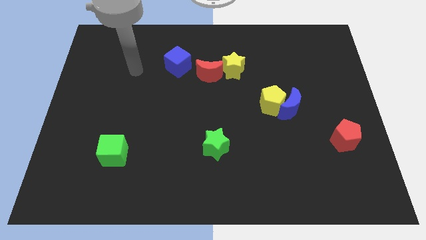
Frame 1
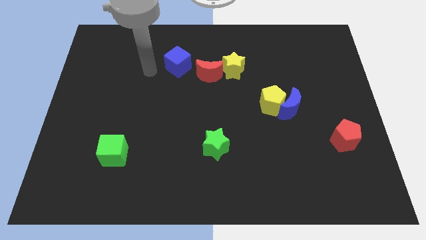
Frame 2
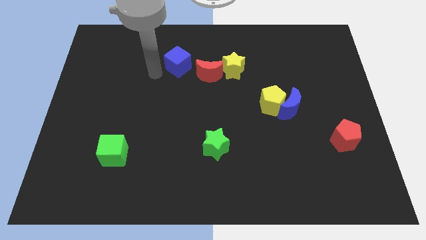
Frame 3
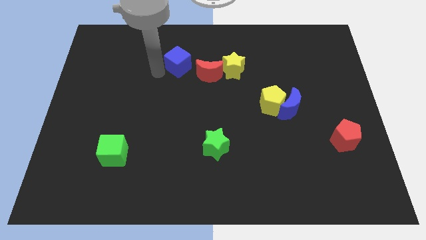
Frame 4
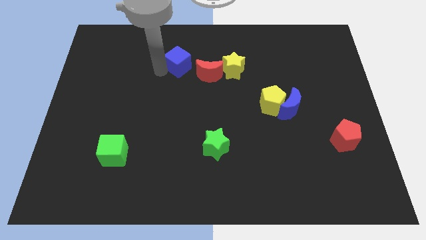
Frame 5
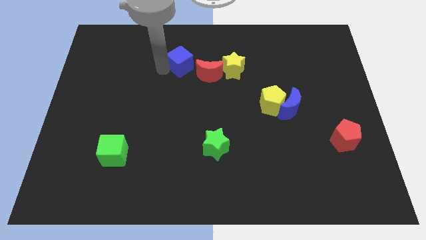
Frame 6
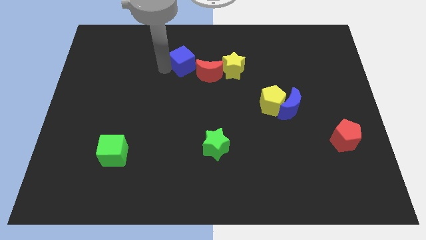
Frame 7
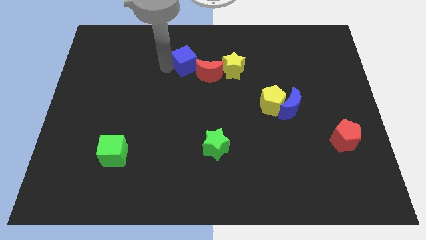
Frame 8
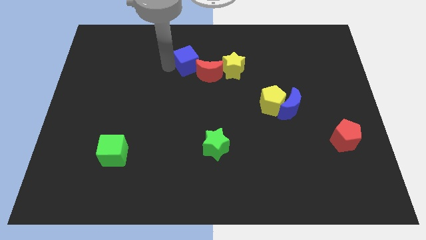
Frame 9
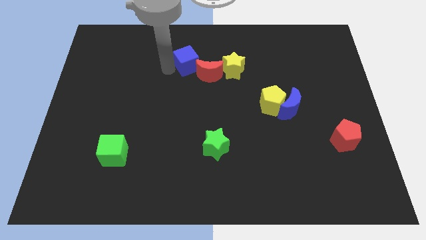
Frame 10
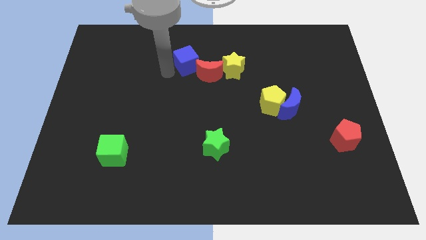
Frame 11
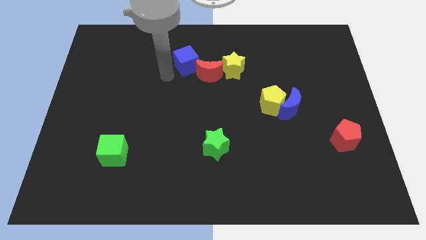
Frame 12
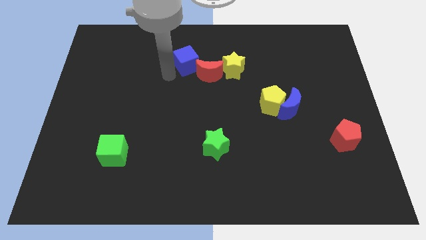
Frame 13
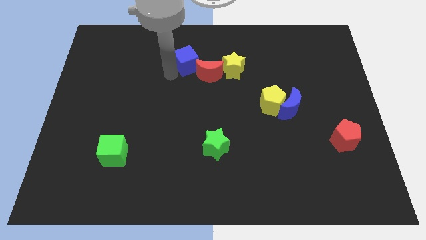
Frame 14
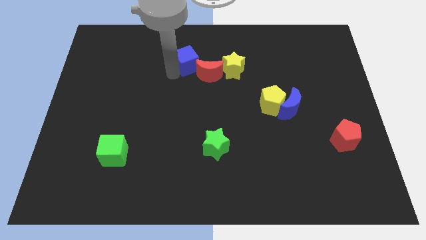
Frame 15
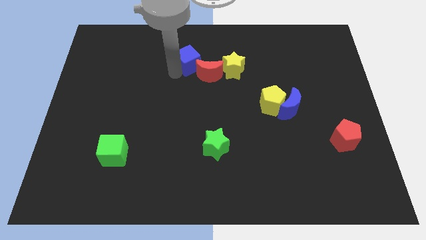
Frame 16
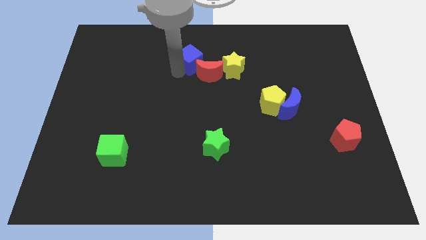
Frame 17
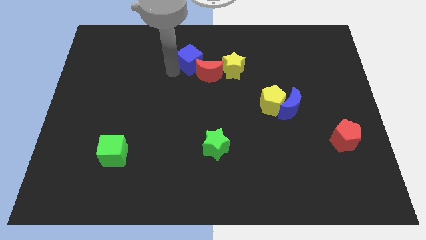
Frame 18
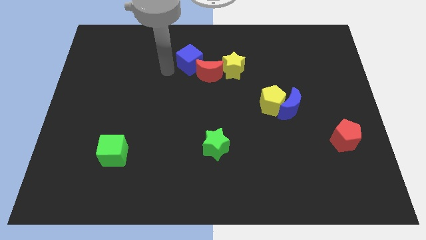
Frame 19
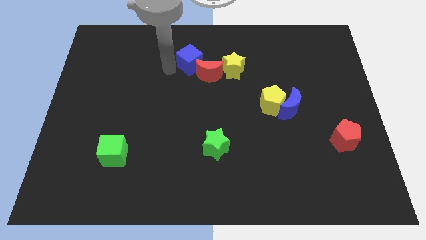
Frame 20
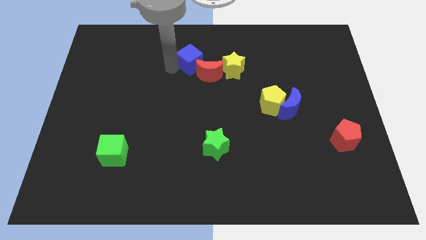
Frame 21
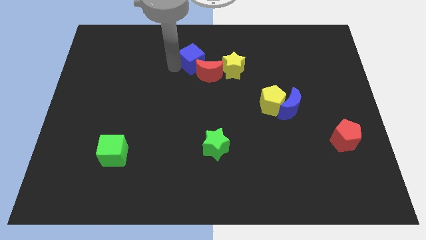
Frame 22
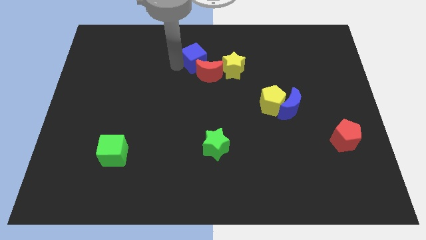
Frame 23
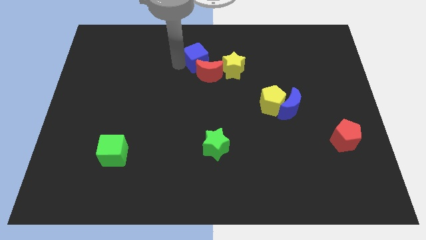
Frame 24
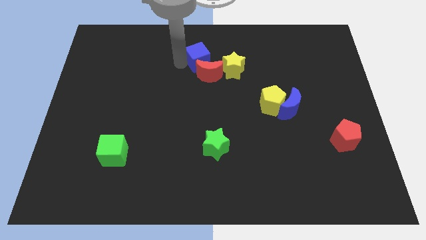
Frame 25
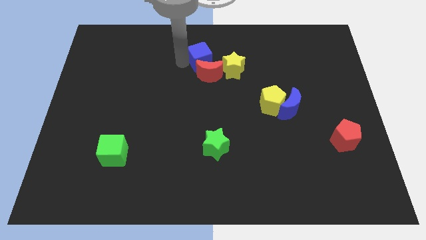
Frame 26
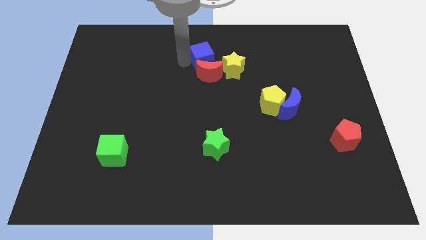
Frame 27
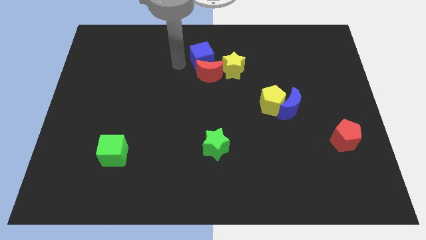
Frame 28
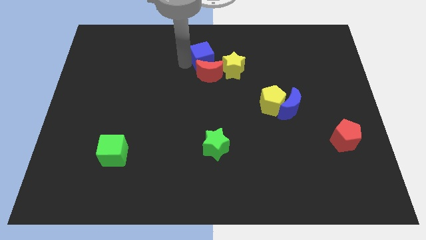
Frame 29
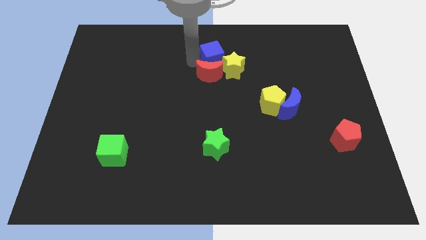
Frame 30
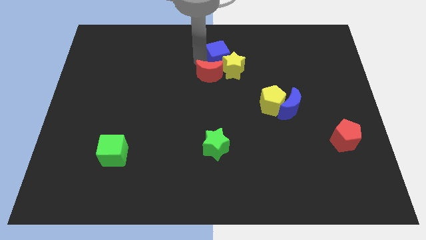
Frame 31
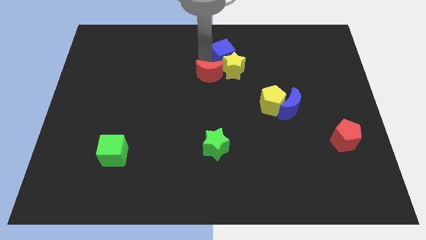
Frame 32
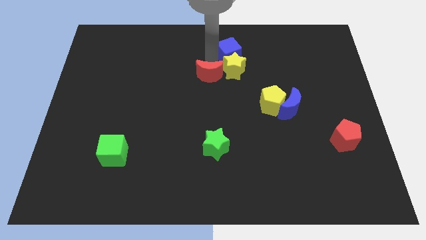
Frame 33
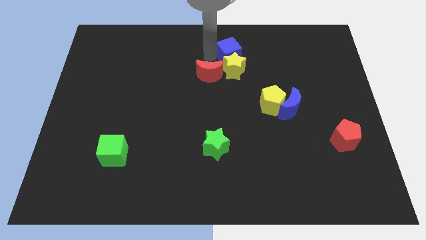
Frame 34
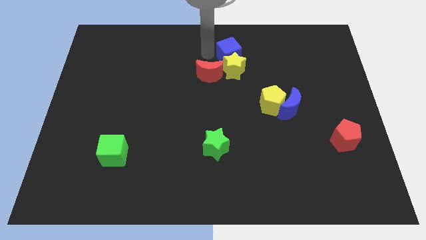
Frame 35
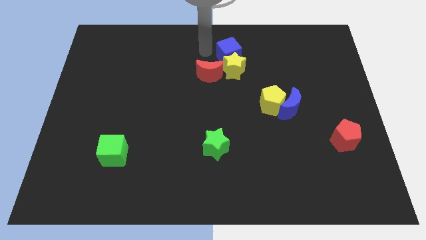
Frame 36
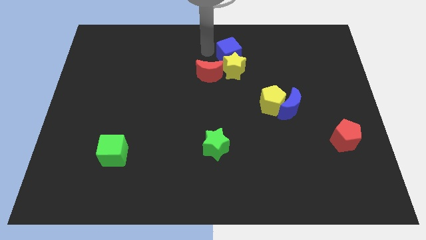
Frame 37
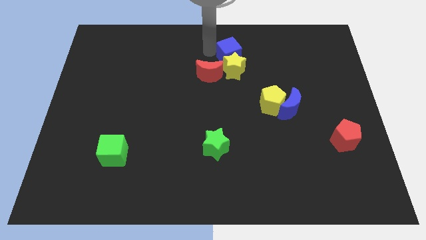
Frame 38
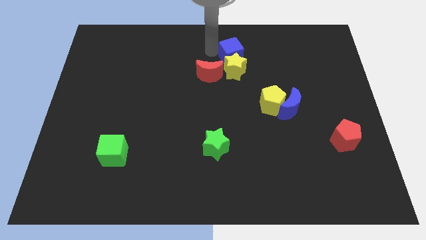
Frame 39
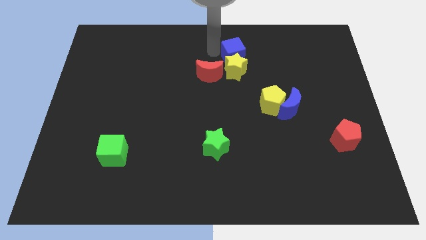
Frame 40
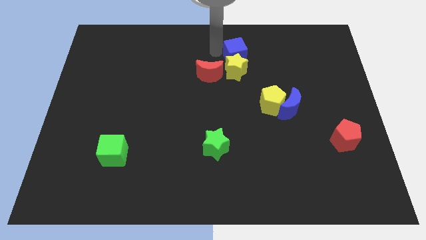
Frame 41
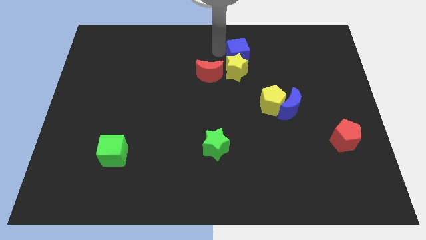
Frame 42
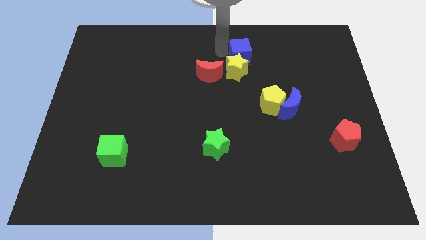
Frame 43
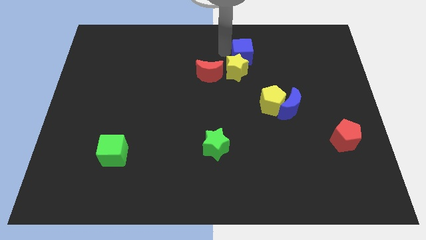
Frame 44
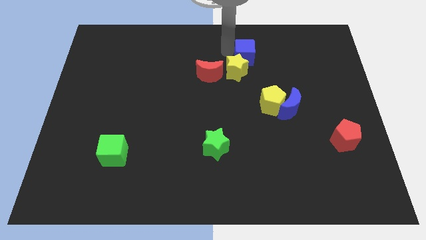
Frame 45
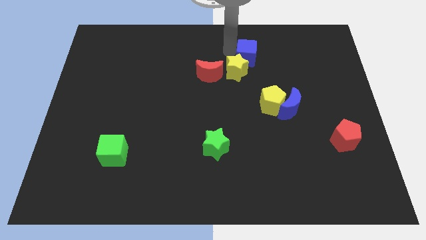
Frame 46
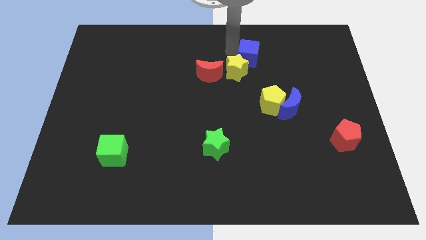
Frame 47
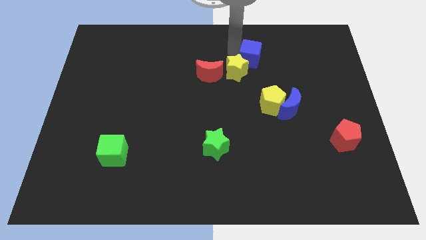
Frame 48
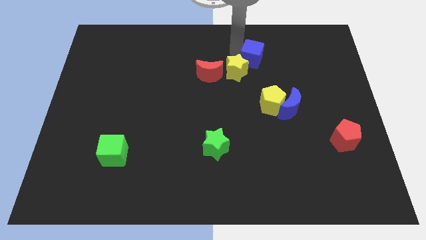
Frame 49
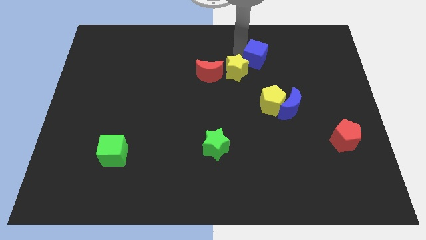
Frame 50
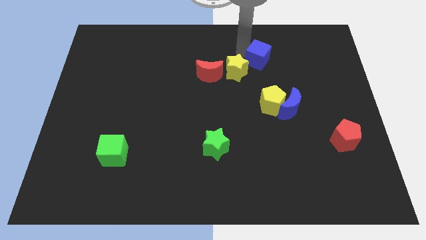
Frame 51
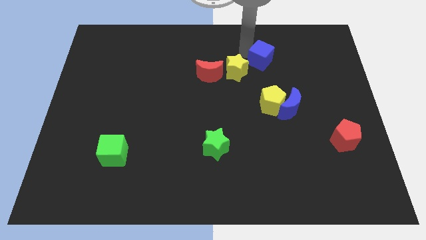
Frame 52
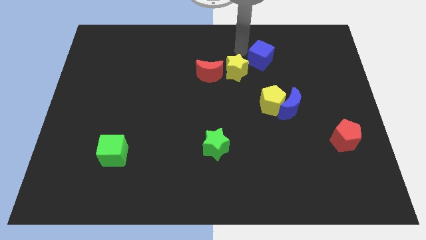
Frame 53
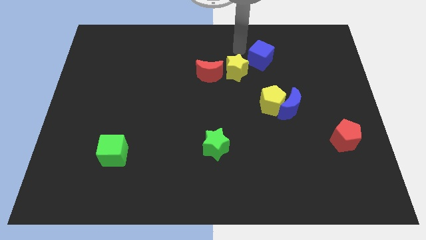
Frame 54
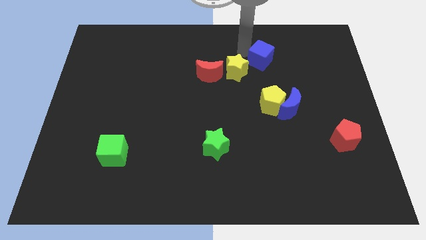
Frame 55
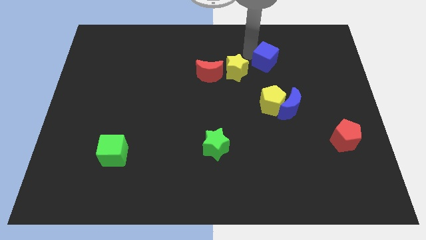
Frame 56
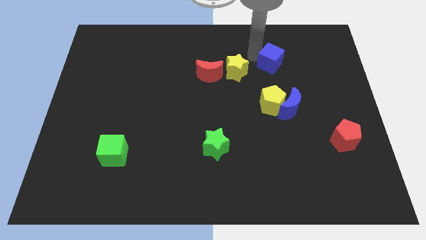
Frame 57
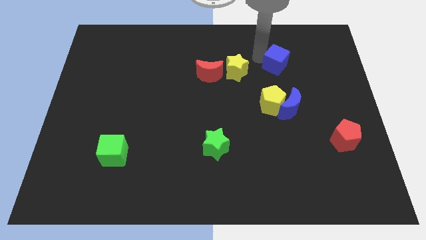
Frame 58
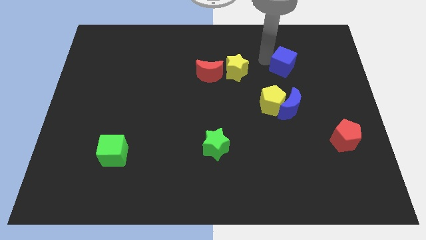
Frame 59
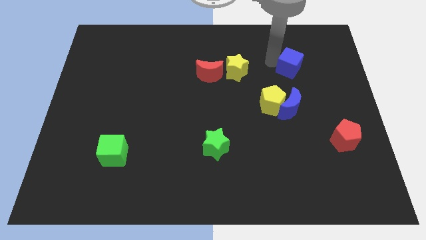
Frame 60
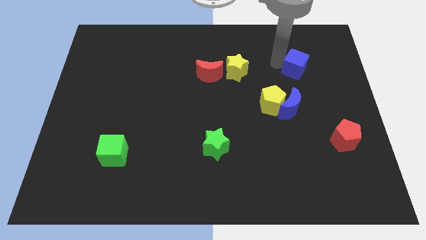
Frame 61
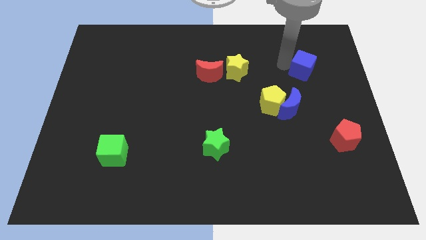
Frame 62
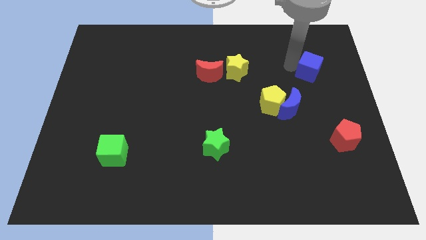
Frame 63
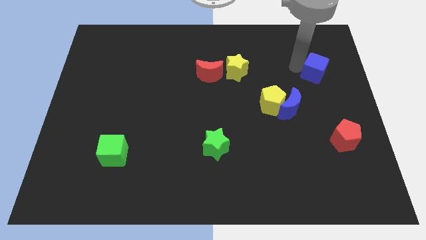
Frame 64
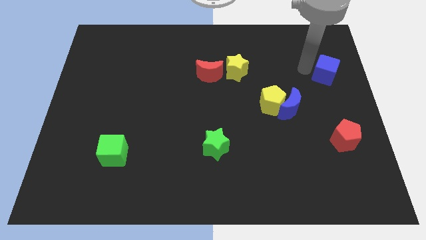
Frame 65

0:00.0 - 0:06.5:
put the blue cube to the right side of the board
